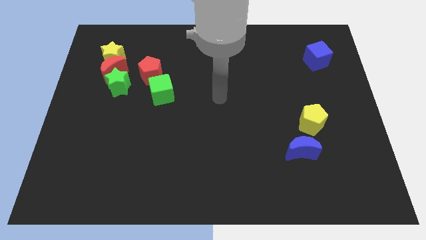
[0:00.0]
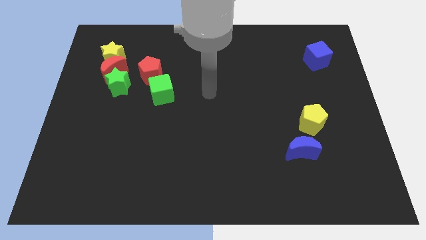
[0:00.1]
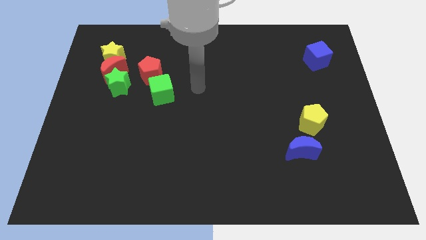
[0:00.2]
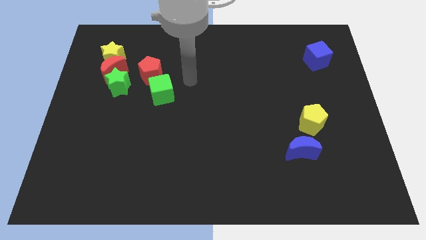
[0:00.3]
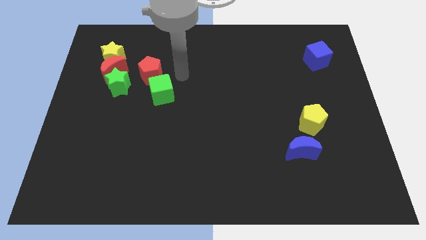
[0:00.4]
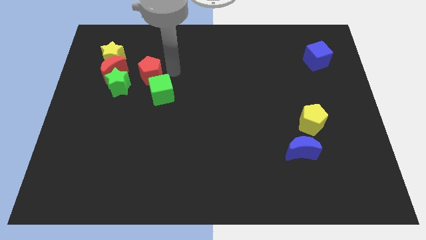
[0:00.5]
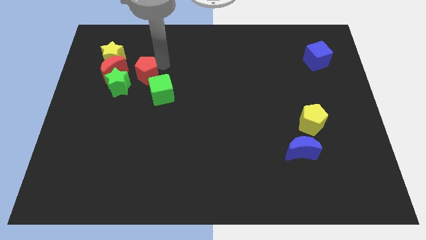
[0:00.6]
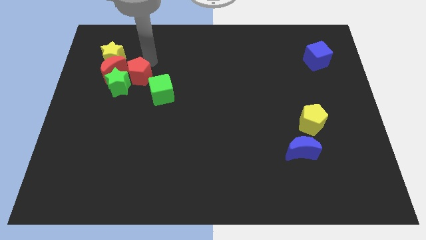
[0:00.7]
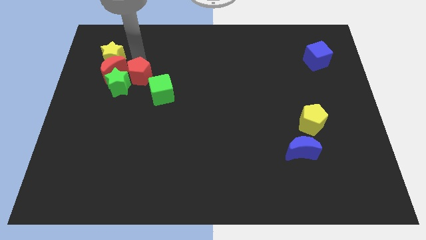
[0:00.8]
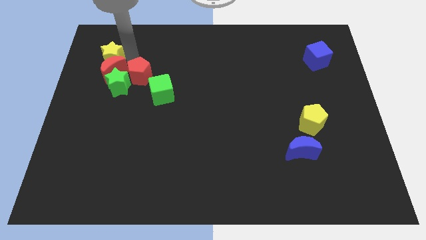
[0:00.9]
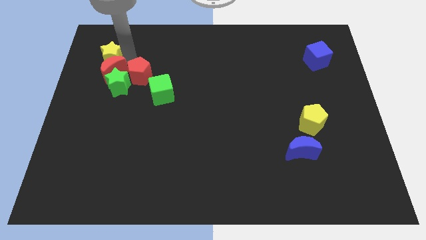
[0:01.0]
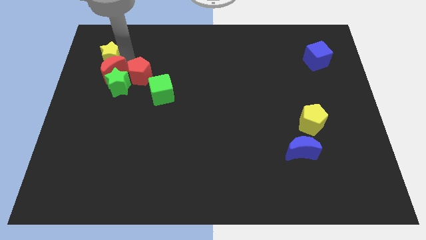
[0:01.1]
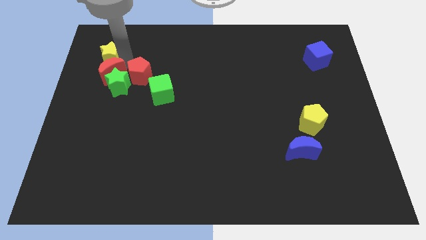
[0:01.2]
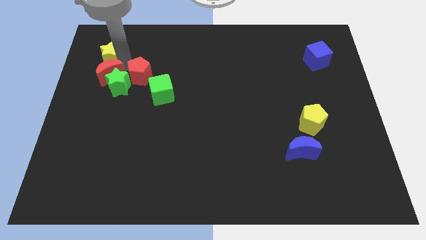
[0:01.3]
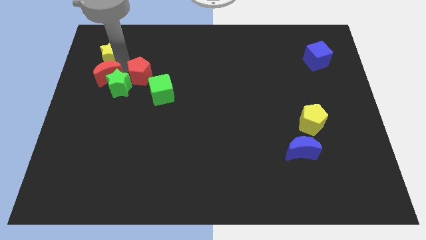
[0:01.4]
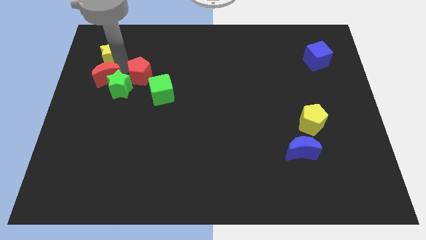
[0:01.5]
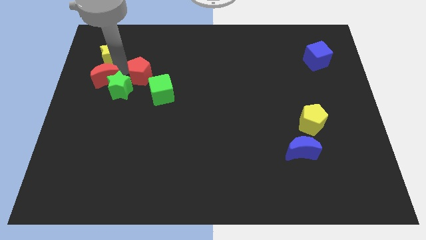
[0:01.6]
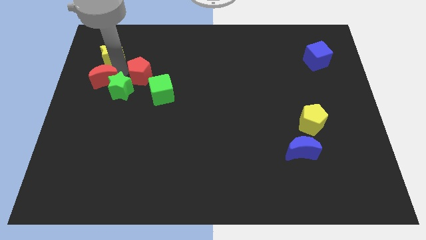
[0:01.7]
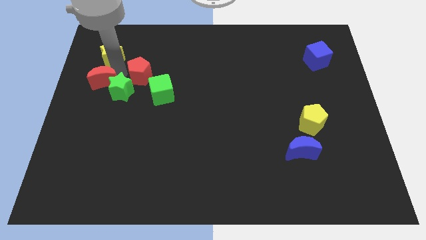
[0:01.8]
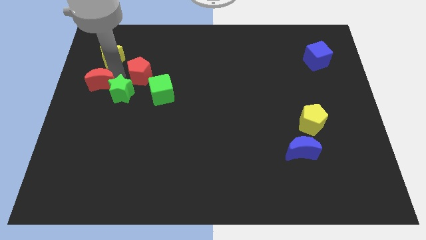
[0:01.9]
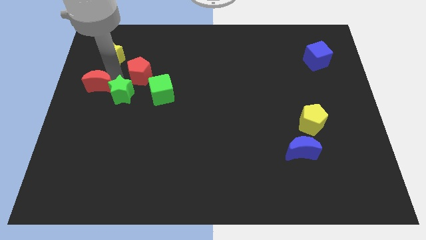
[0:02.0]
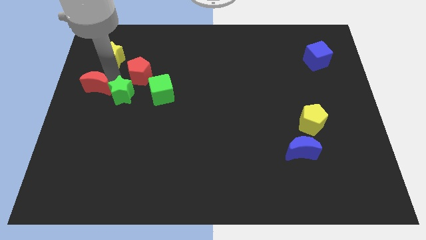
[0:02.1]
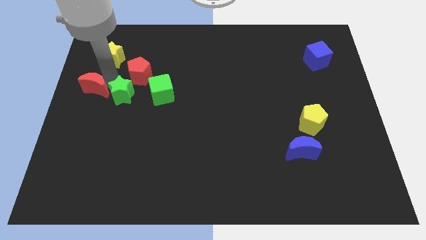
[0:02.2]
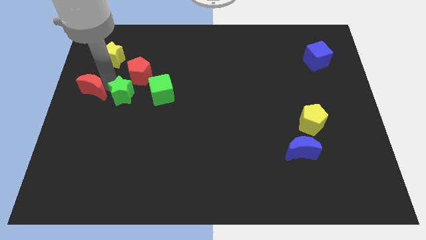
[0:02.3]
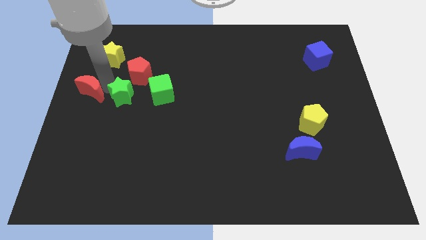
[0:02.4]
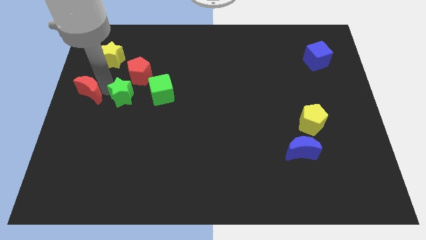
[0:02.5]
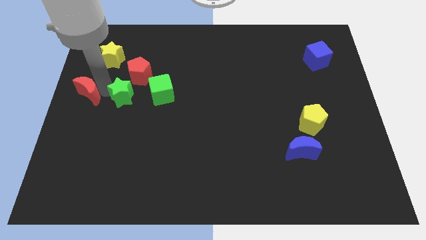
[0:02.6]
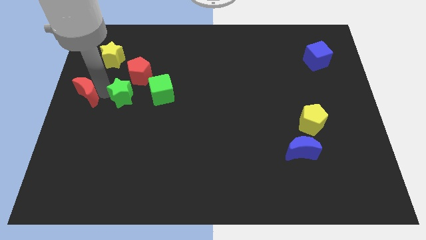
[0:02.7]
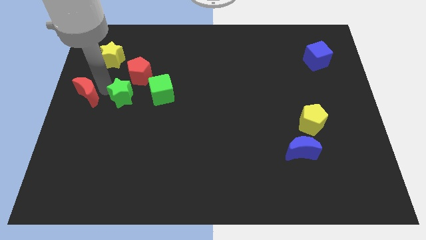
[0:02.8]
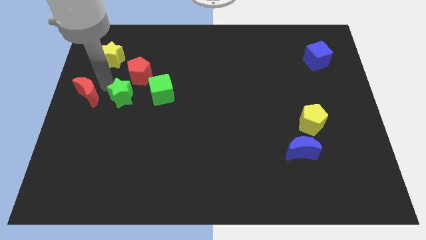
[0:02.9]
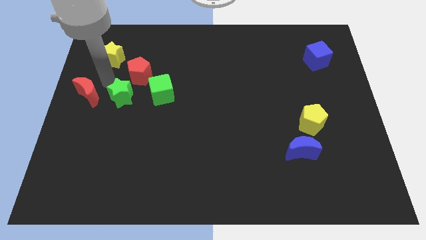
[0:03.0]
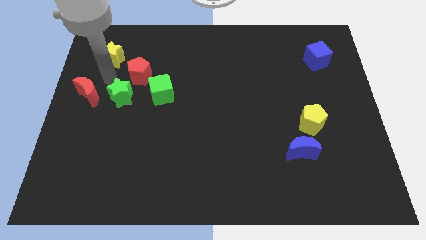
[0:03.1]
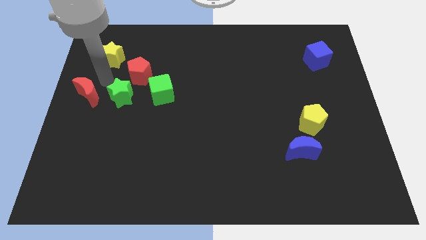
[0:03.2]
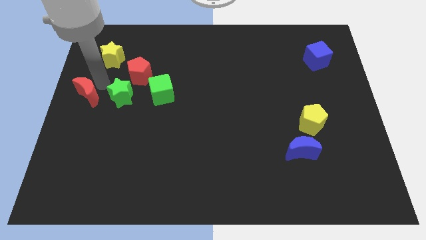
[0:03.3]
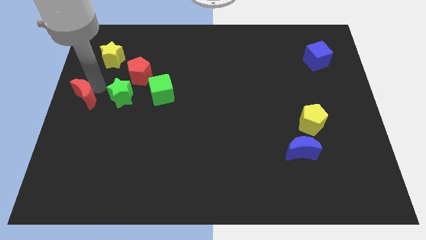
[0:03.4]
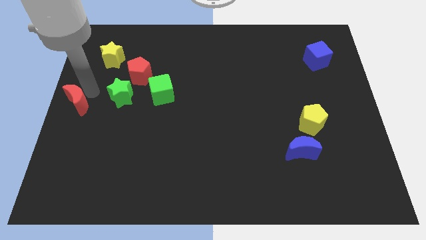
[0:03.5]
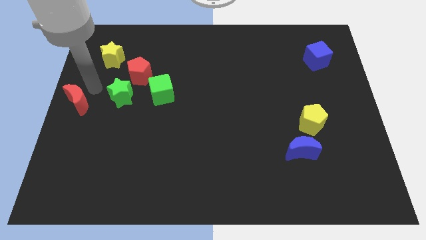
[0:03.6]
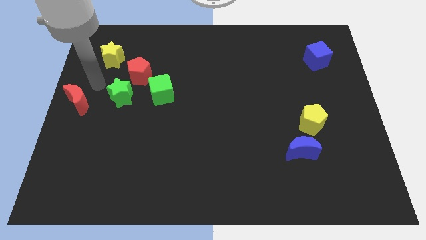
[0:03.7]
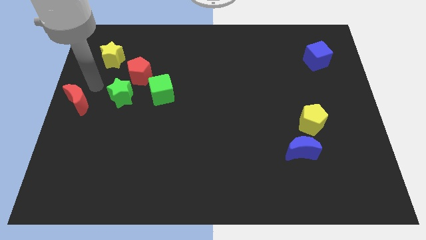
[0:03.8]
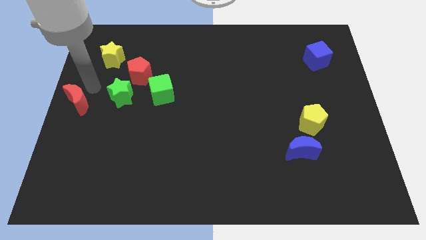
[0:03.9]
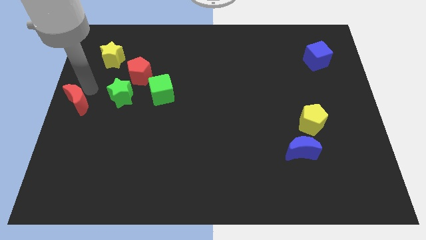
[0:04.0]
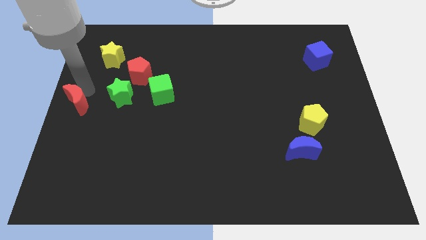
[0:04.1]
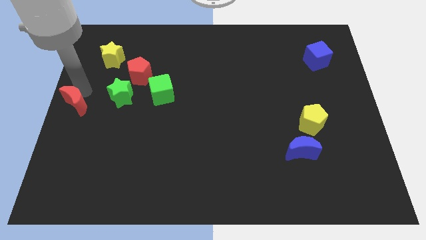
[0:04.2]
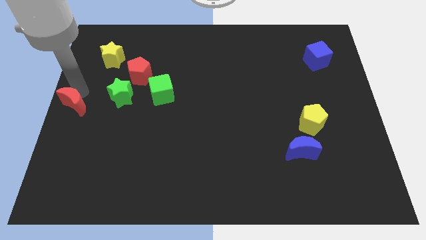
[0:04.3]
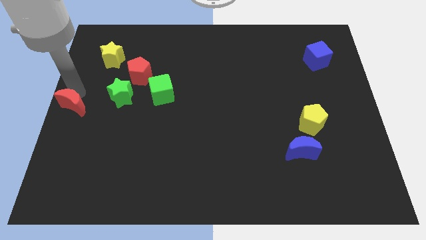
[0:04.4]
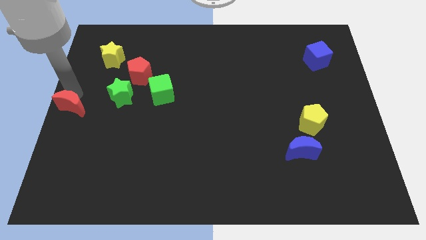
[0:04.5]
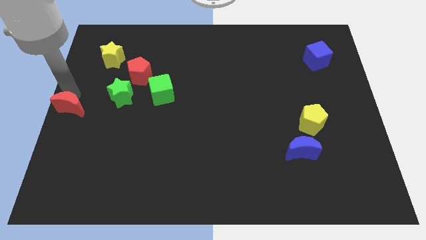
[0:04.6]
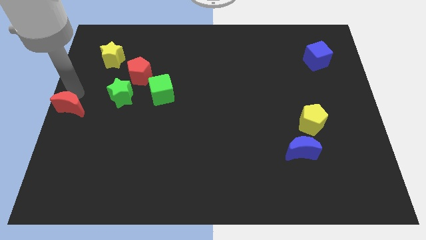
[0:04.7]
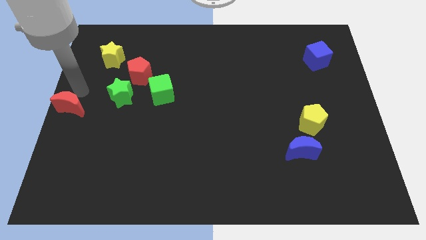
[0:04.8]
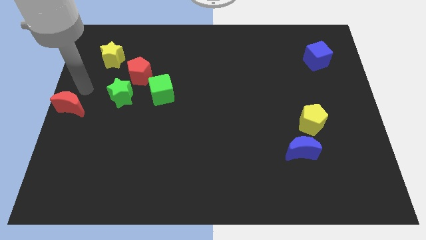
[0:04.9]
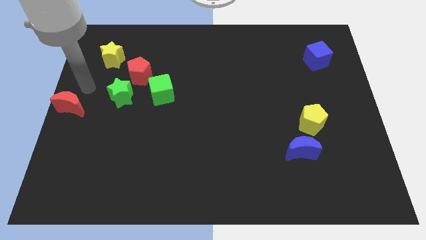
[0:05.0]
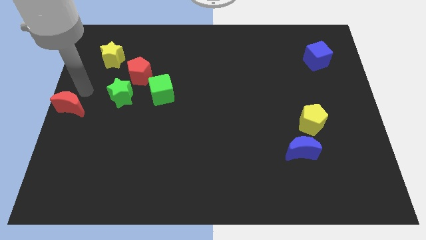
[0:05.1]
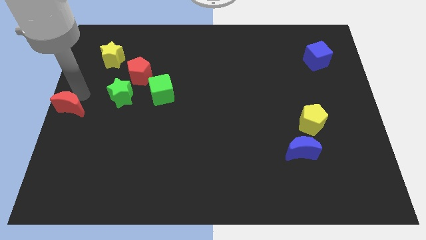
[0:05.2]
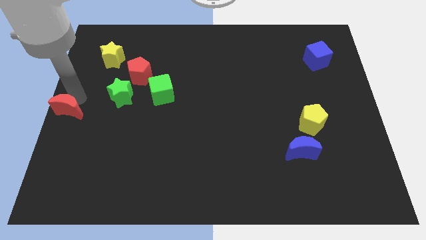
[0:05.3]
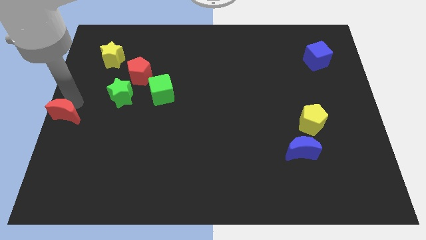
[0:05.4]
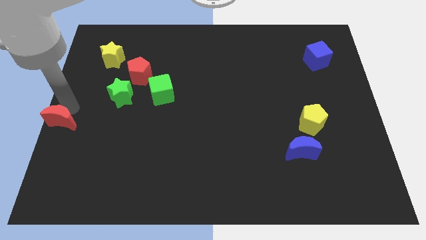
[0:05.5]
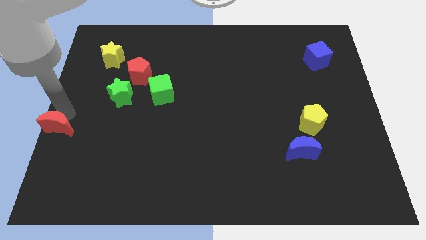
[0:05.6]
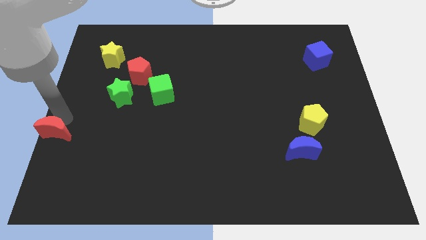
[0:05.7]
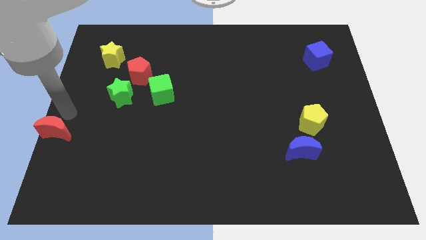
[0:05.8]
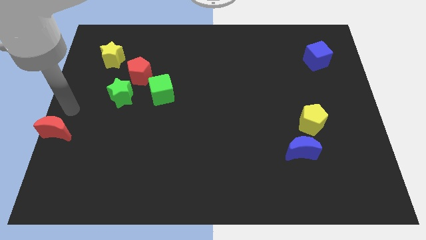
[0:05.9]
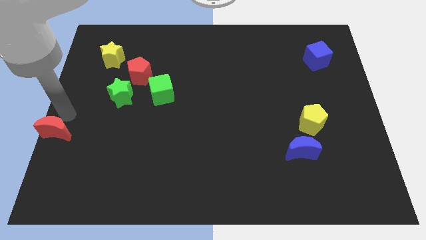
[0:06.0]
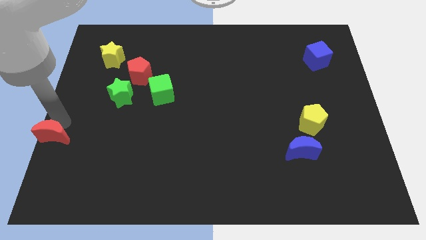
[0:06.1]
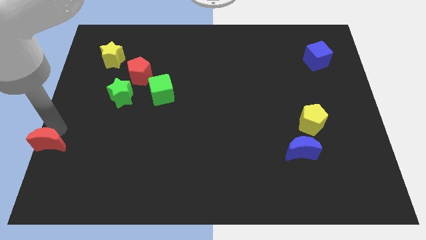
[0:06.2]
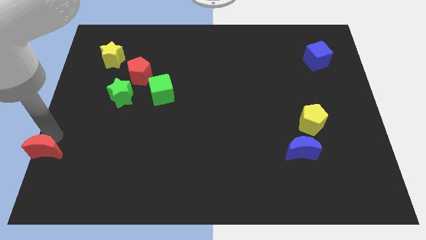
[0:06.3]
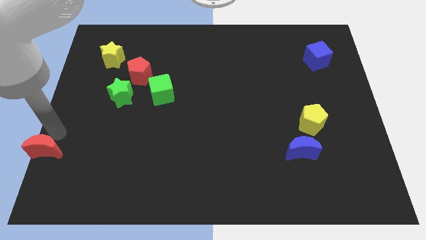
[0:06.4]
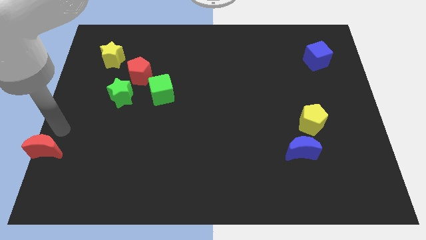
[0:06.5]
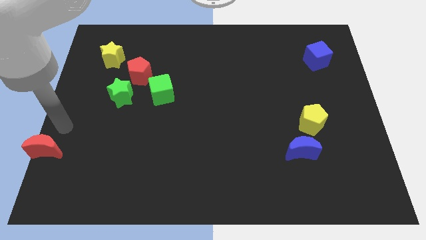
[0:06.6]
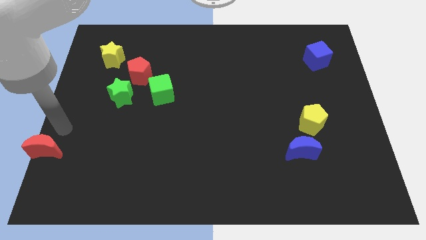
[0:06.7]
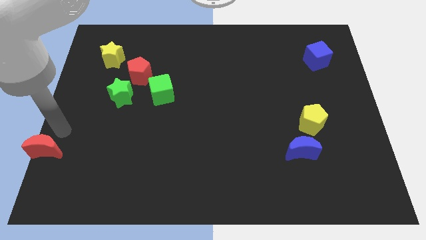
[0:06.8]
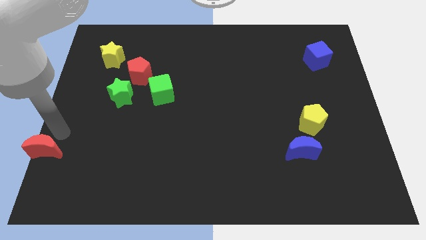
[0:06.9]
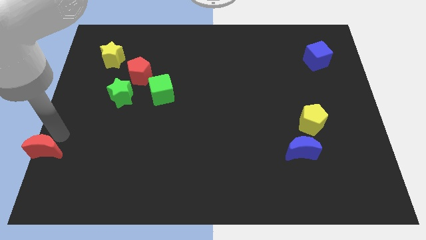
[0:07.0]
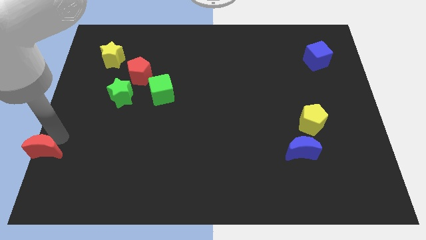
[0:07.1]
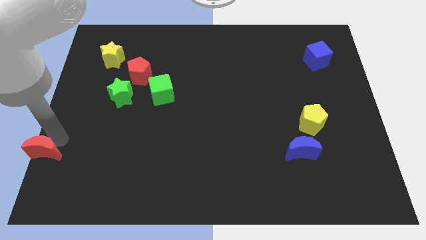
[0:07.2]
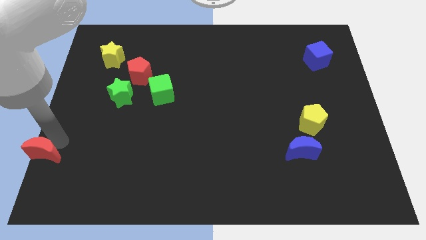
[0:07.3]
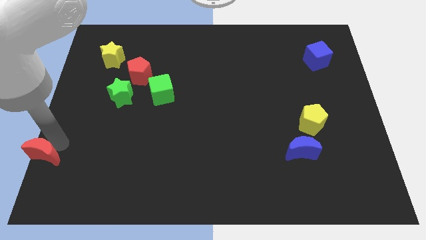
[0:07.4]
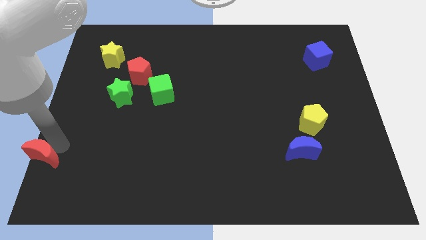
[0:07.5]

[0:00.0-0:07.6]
put the red moon to the bottom left of the board
